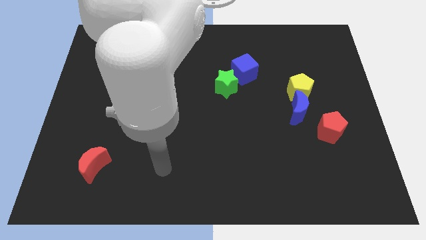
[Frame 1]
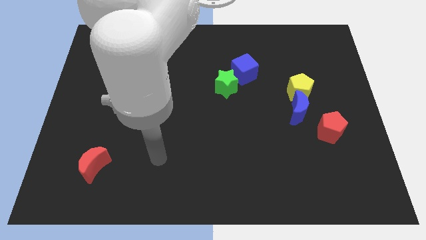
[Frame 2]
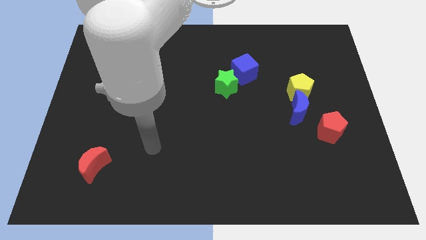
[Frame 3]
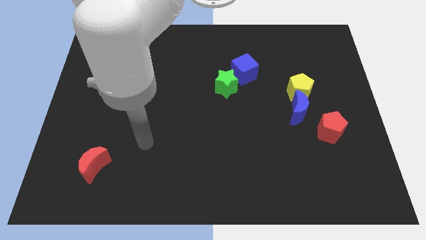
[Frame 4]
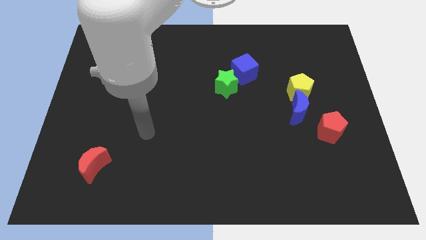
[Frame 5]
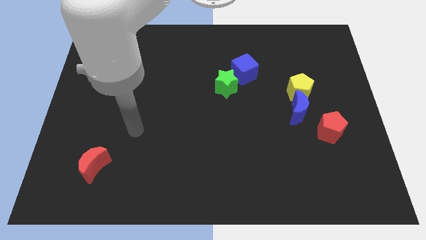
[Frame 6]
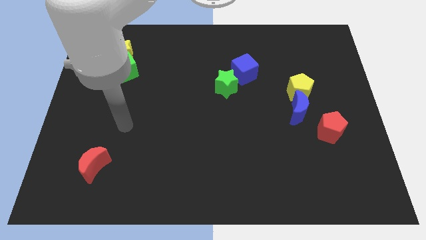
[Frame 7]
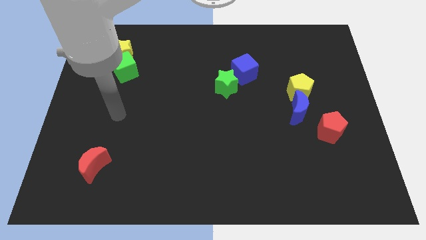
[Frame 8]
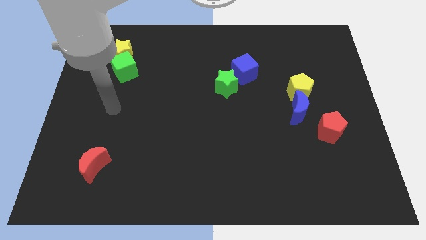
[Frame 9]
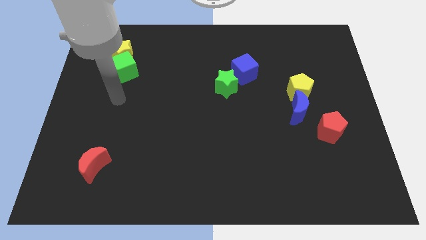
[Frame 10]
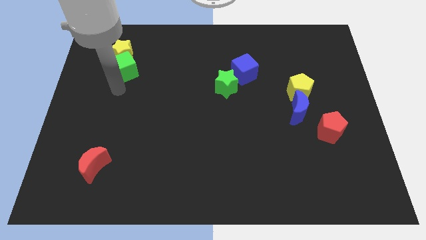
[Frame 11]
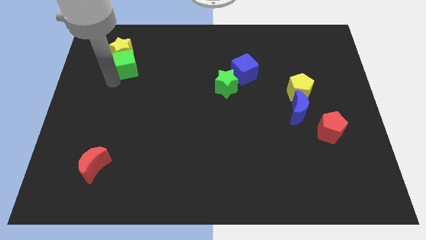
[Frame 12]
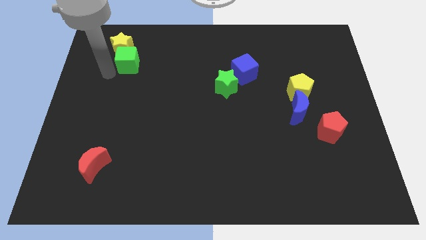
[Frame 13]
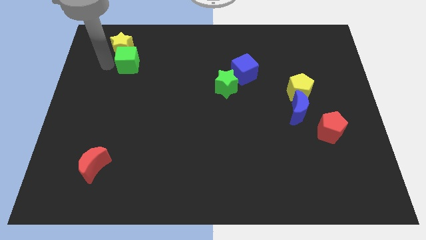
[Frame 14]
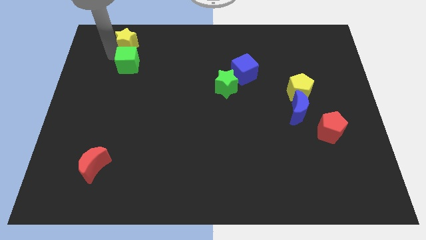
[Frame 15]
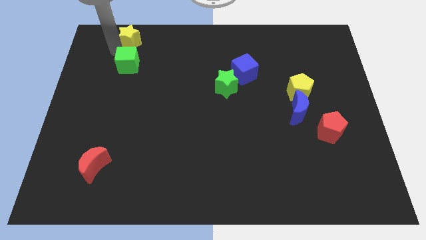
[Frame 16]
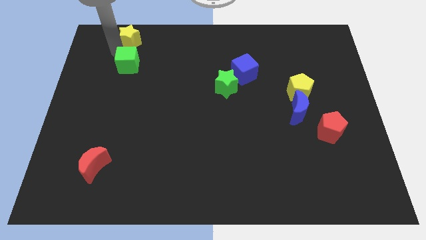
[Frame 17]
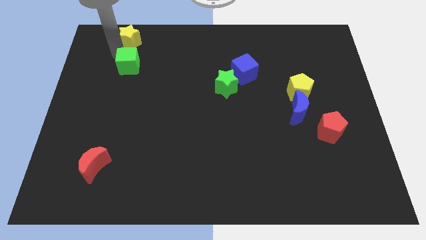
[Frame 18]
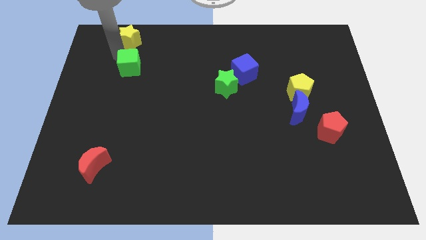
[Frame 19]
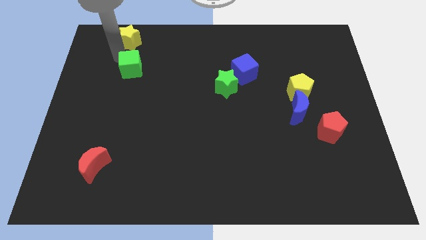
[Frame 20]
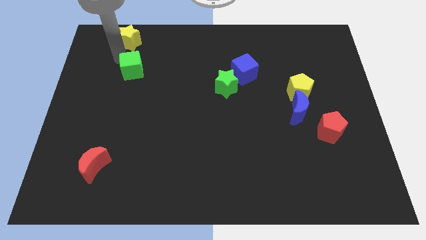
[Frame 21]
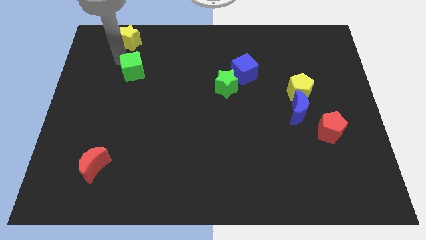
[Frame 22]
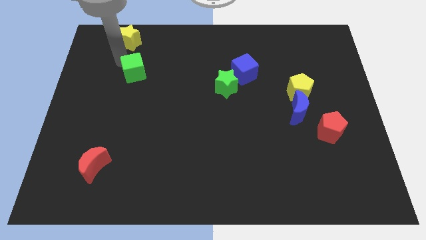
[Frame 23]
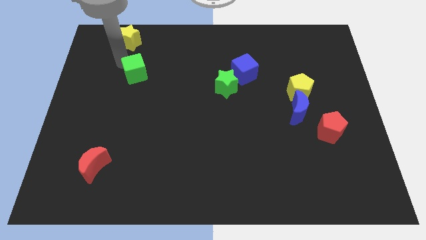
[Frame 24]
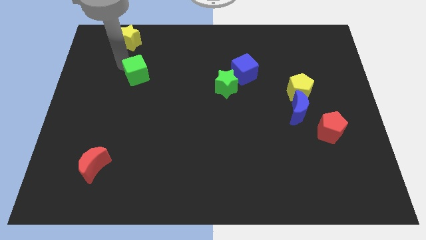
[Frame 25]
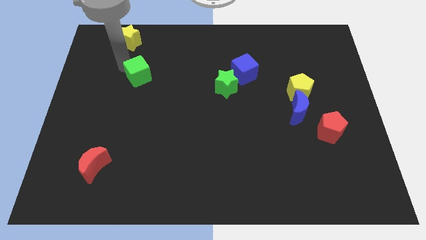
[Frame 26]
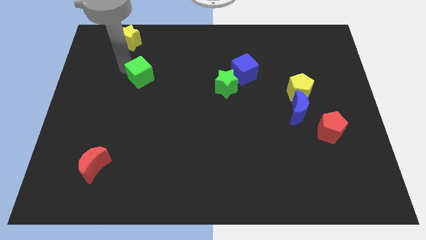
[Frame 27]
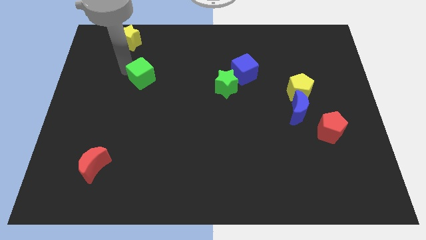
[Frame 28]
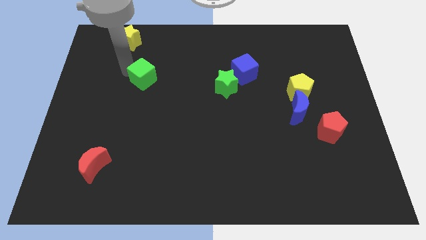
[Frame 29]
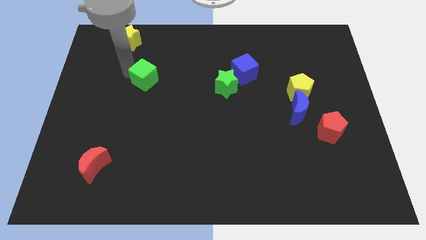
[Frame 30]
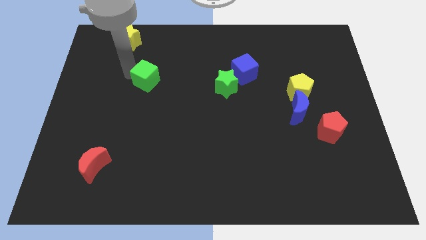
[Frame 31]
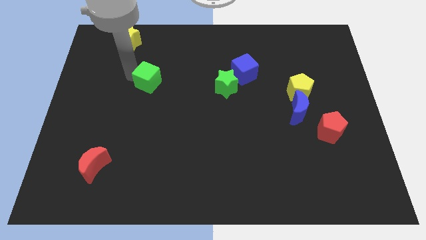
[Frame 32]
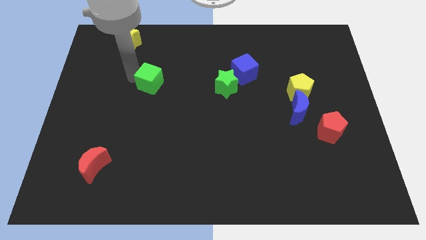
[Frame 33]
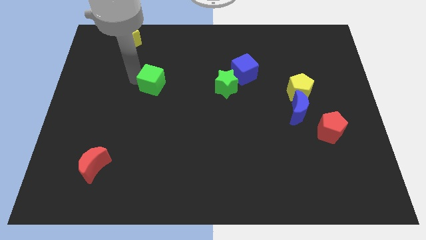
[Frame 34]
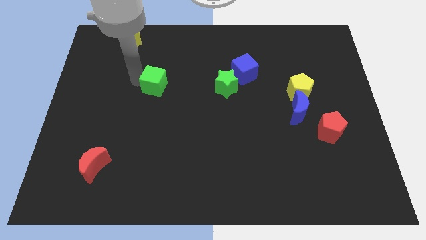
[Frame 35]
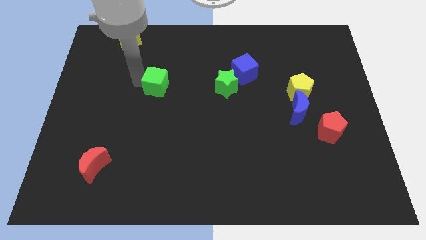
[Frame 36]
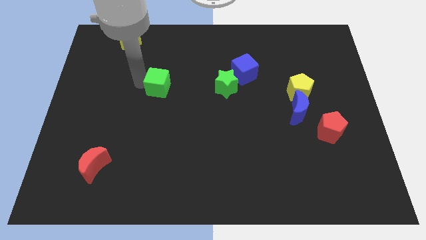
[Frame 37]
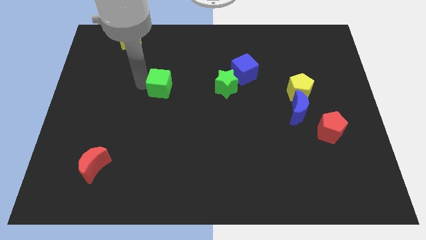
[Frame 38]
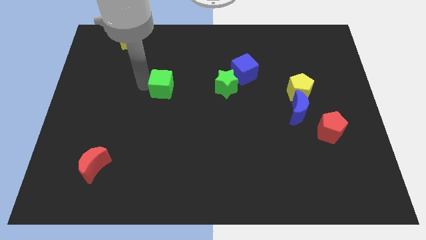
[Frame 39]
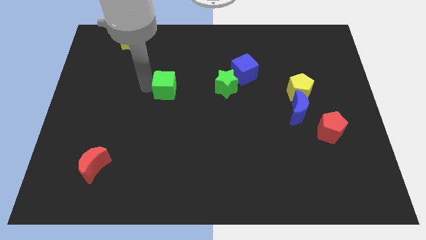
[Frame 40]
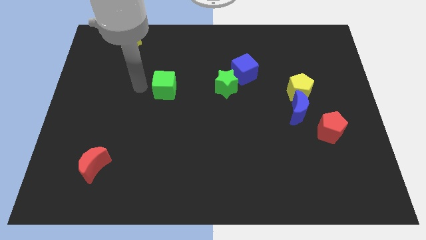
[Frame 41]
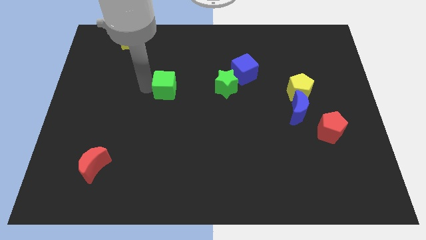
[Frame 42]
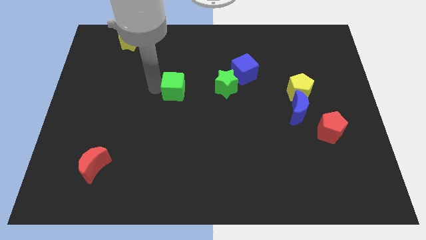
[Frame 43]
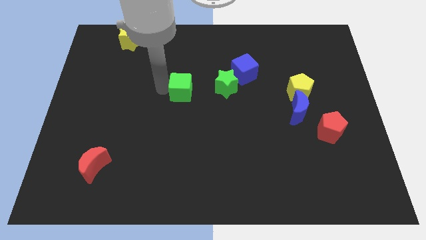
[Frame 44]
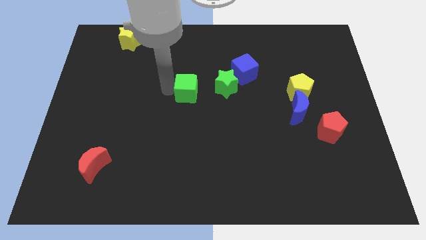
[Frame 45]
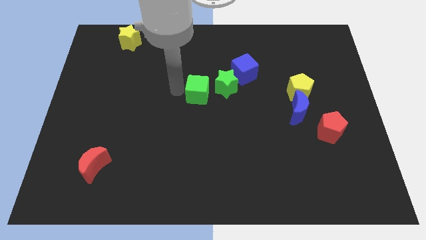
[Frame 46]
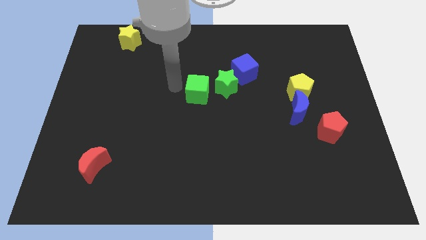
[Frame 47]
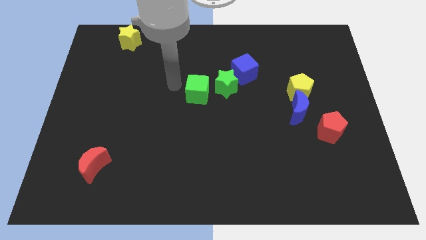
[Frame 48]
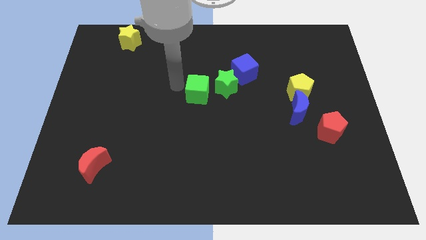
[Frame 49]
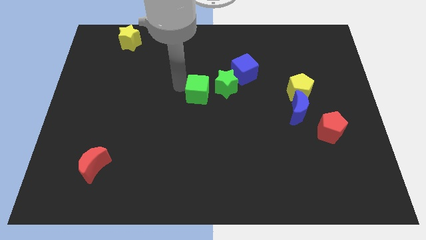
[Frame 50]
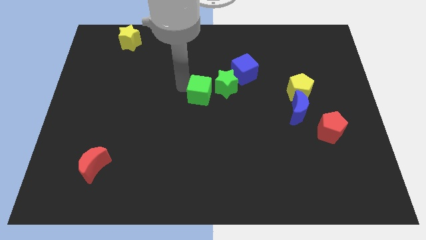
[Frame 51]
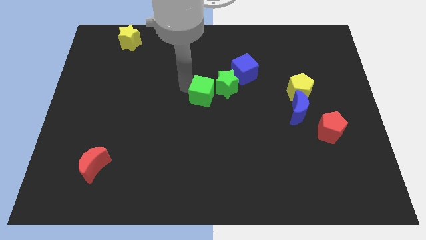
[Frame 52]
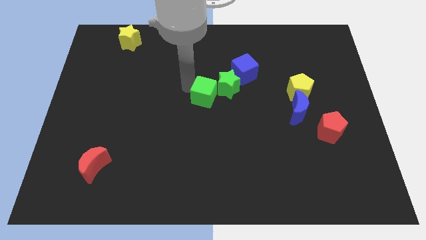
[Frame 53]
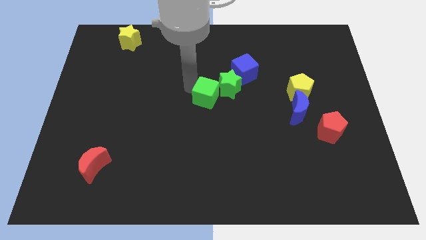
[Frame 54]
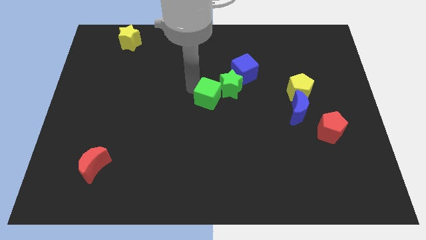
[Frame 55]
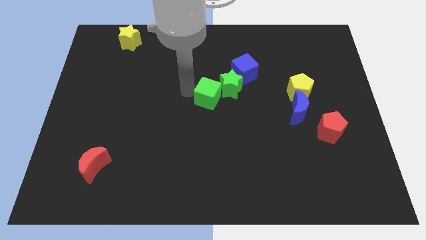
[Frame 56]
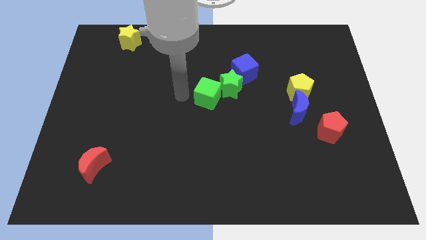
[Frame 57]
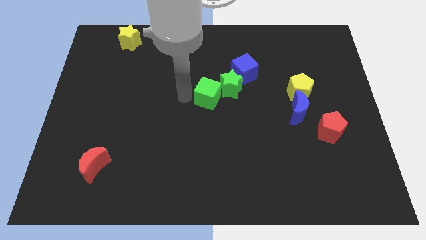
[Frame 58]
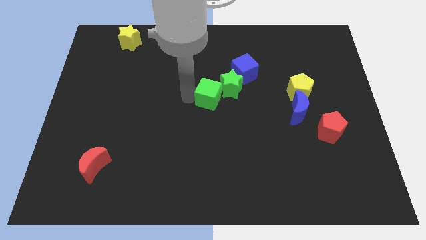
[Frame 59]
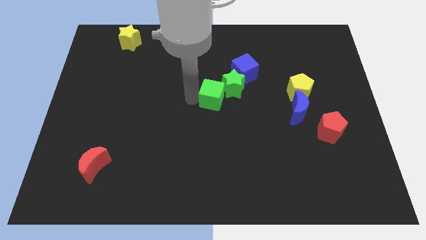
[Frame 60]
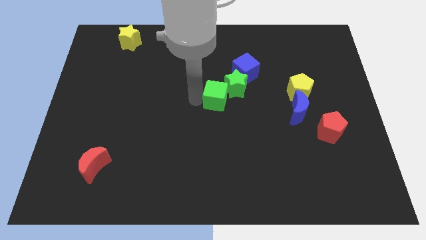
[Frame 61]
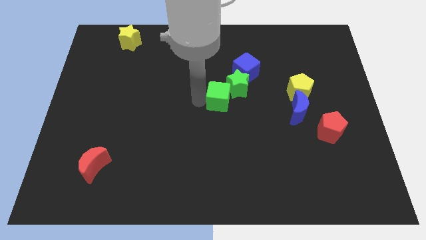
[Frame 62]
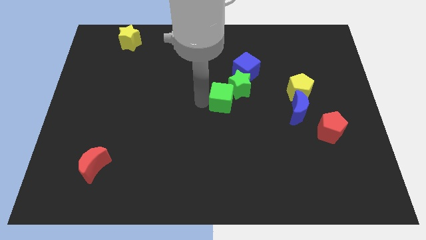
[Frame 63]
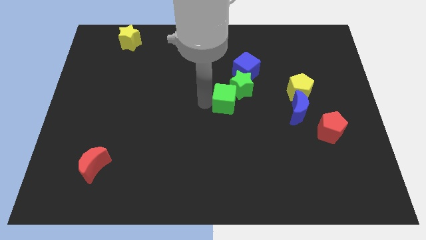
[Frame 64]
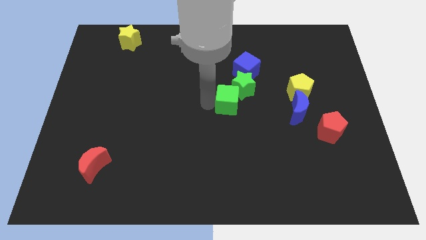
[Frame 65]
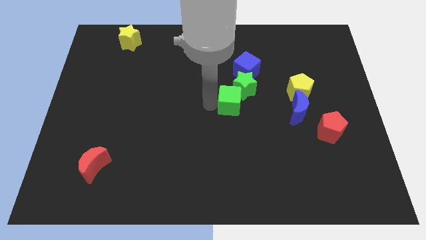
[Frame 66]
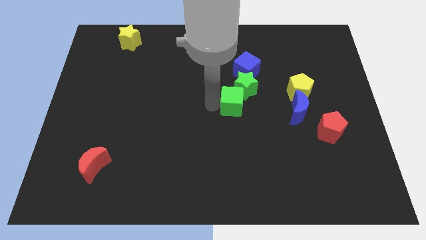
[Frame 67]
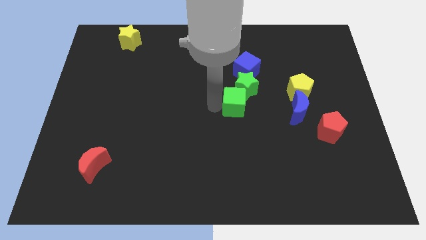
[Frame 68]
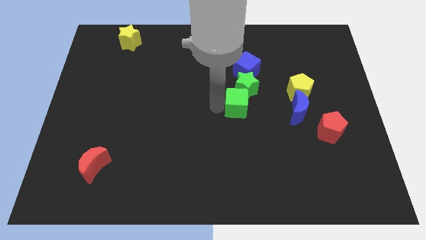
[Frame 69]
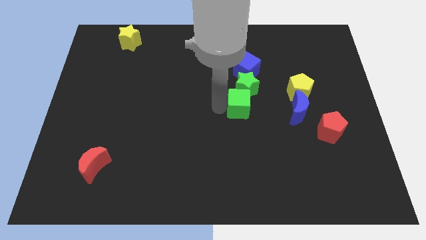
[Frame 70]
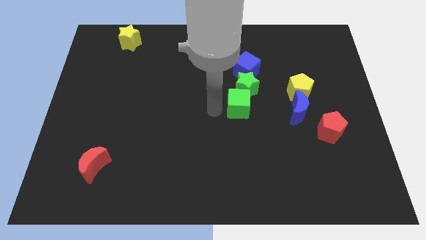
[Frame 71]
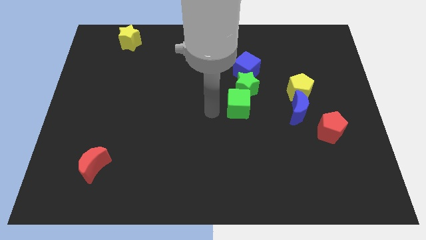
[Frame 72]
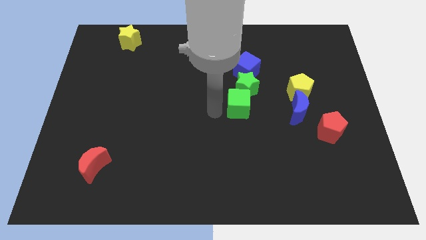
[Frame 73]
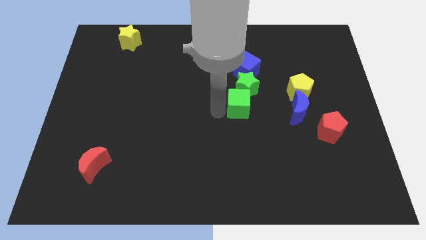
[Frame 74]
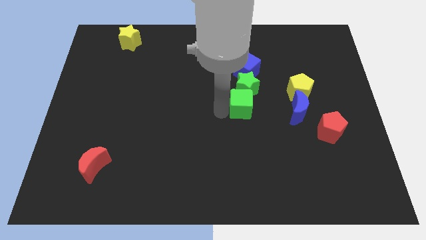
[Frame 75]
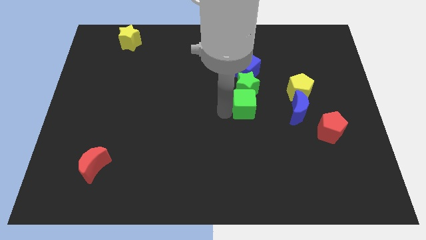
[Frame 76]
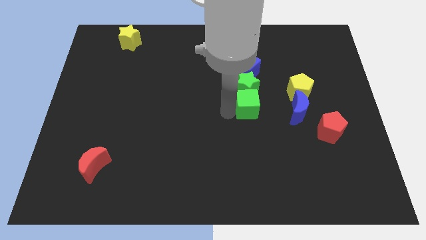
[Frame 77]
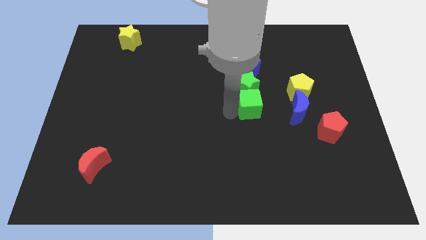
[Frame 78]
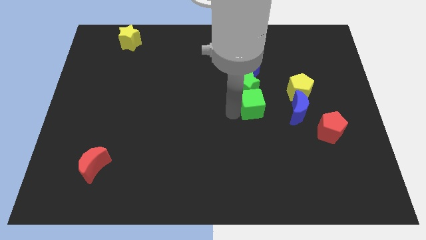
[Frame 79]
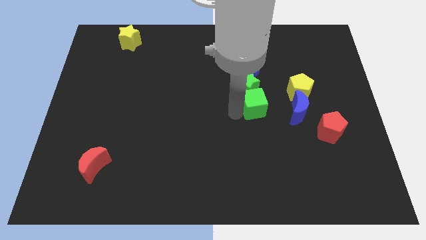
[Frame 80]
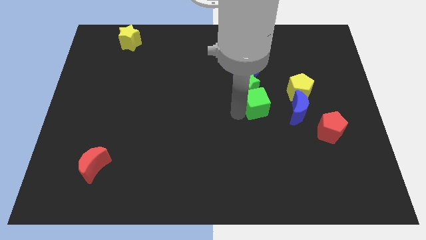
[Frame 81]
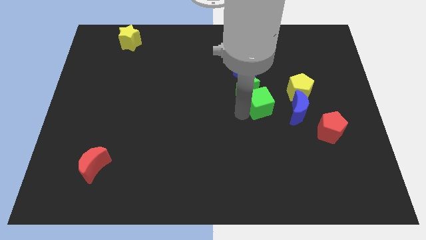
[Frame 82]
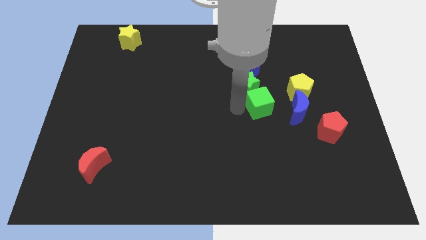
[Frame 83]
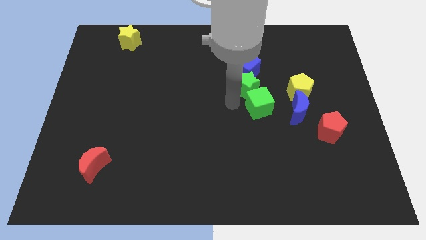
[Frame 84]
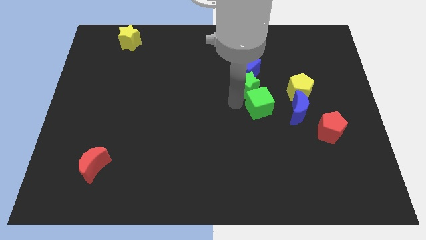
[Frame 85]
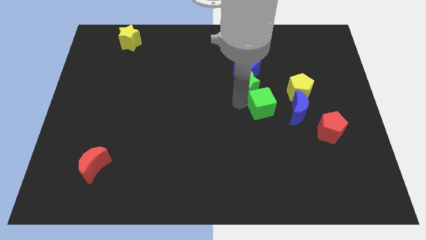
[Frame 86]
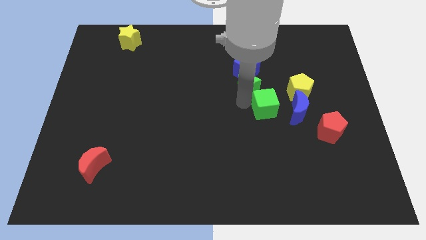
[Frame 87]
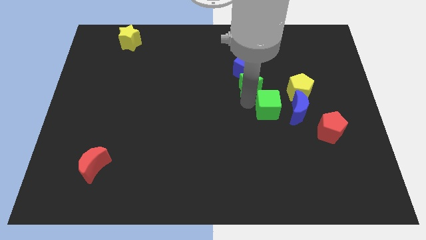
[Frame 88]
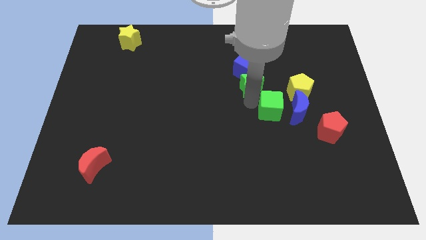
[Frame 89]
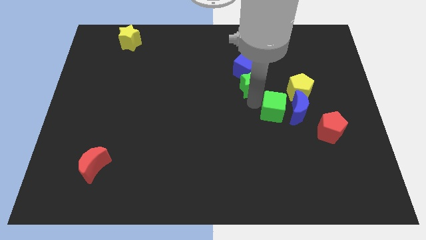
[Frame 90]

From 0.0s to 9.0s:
put the green cube next to the blue moon
